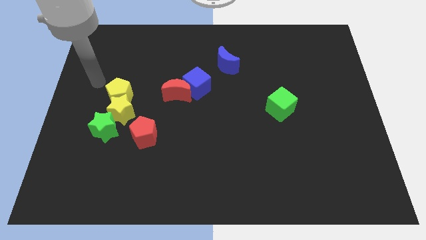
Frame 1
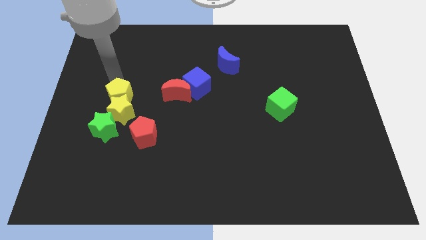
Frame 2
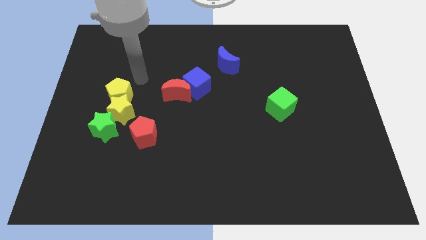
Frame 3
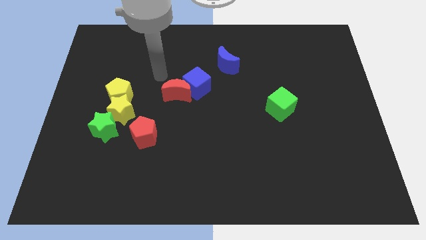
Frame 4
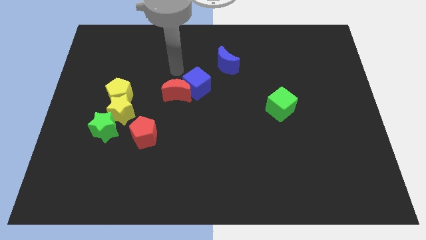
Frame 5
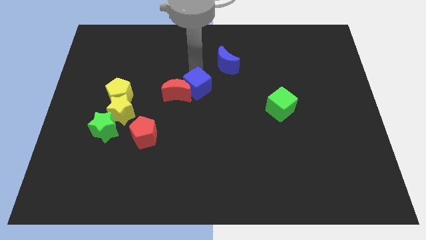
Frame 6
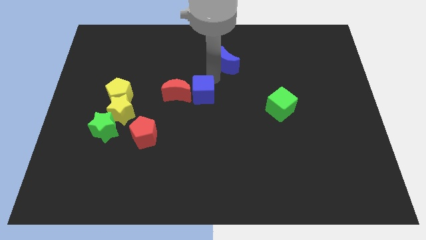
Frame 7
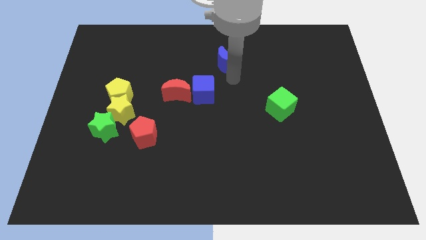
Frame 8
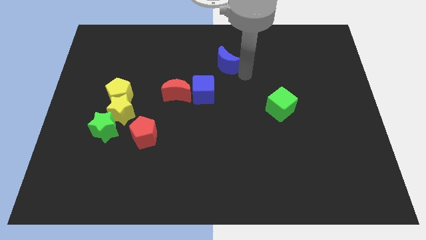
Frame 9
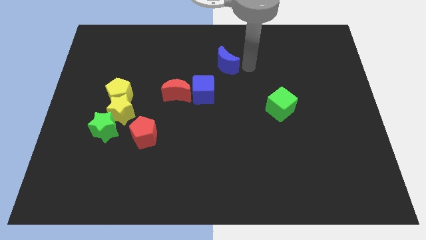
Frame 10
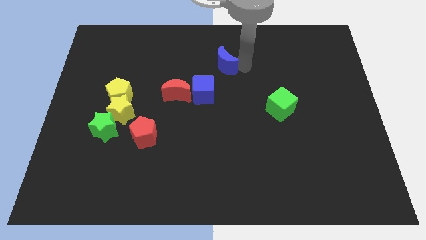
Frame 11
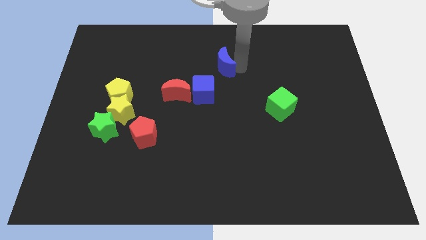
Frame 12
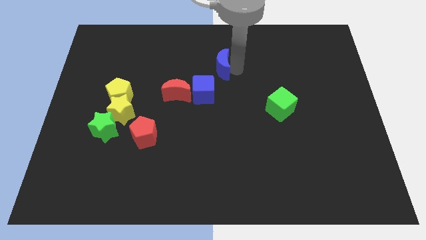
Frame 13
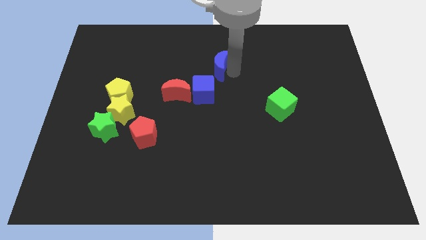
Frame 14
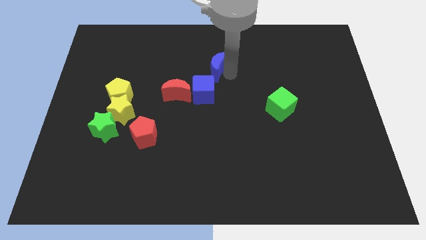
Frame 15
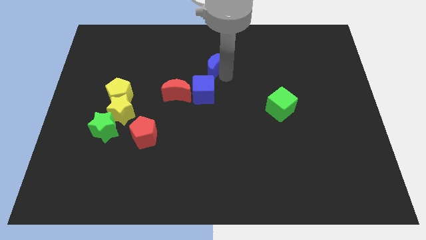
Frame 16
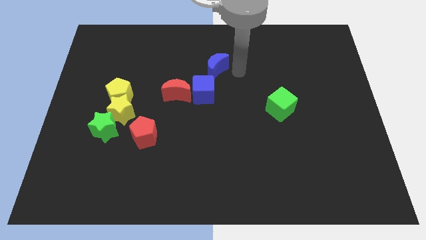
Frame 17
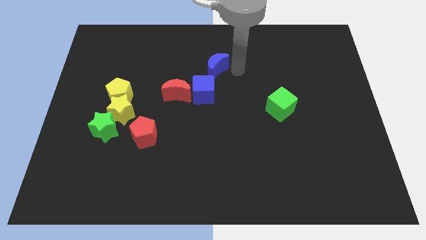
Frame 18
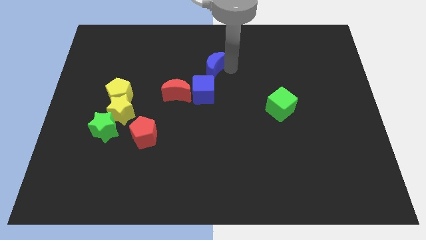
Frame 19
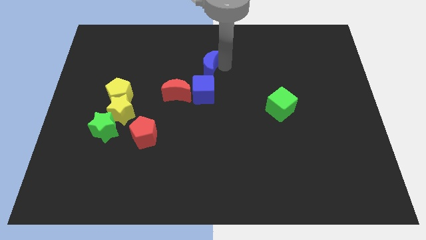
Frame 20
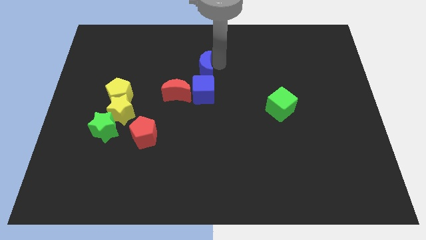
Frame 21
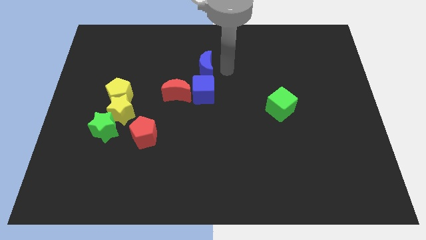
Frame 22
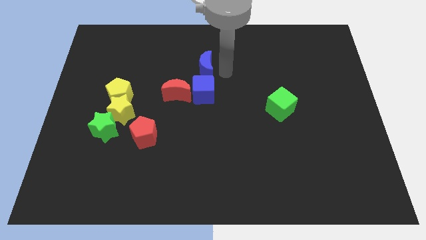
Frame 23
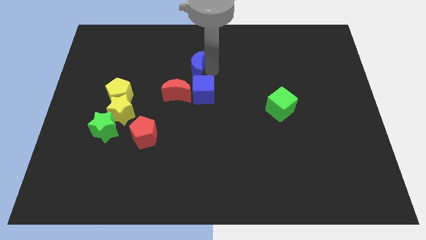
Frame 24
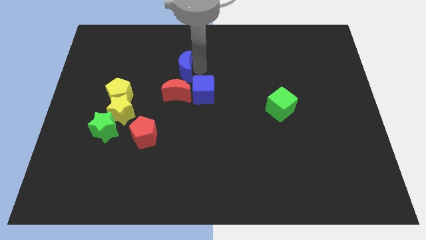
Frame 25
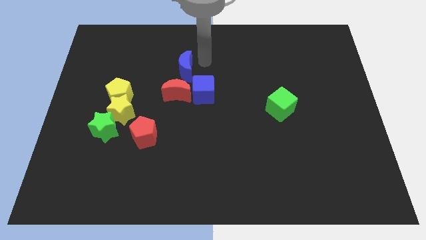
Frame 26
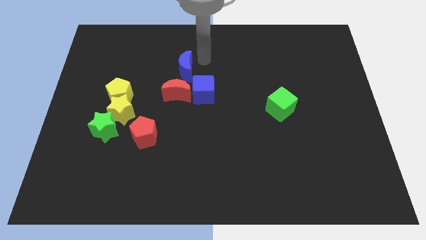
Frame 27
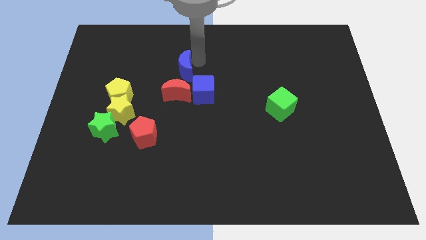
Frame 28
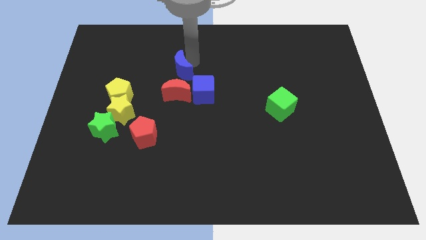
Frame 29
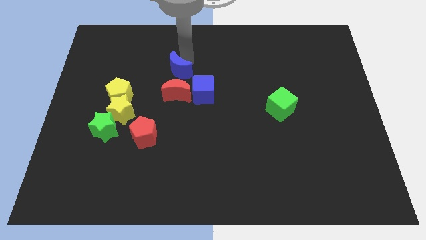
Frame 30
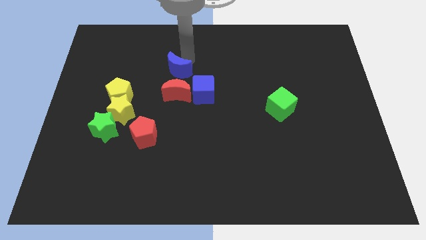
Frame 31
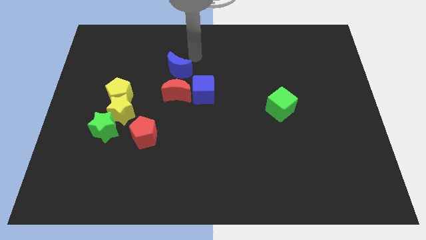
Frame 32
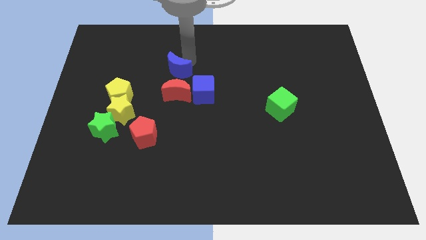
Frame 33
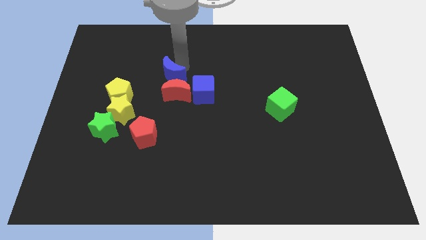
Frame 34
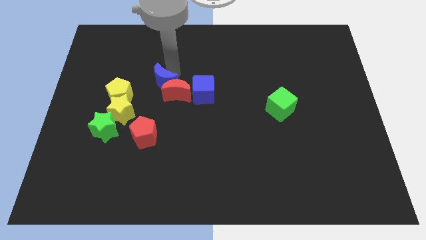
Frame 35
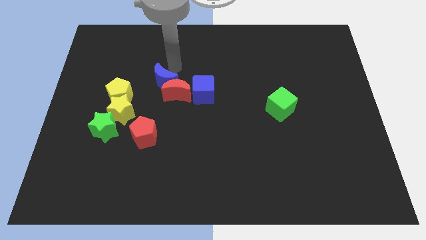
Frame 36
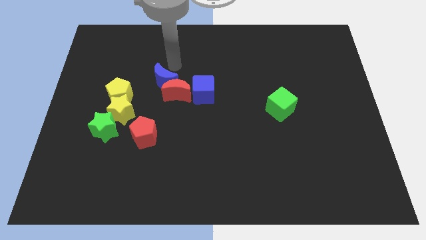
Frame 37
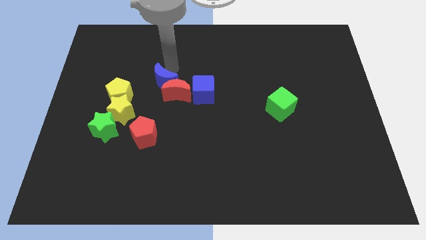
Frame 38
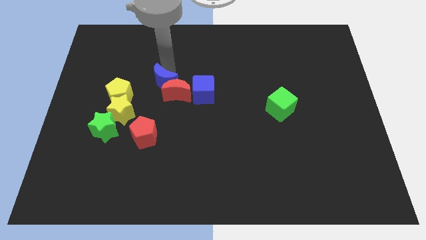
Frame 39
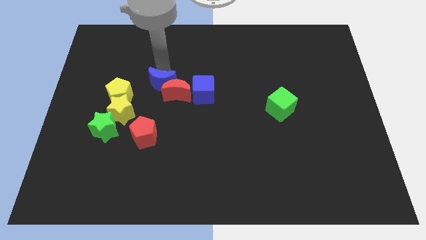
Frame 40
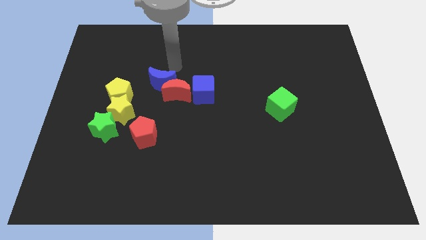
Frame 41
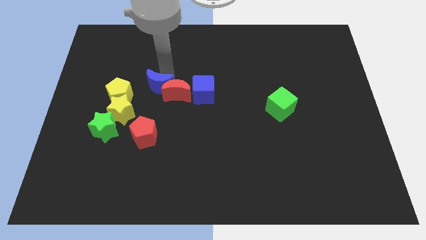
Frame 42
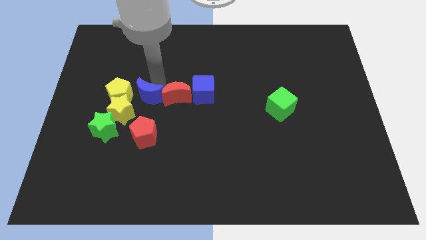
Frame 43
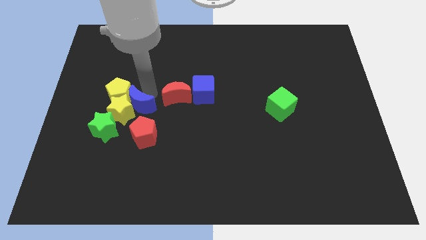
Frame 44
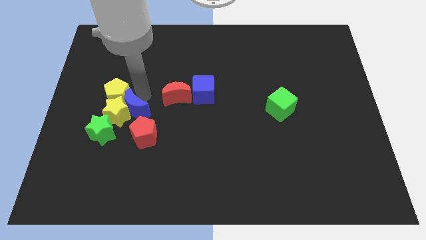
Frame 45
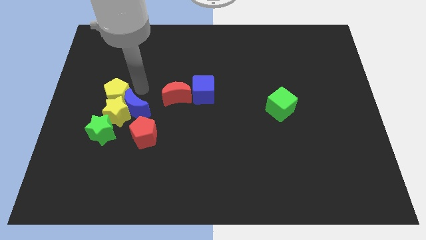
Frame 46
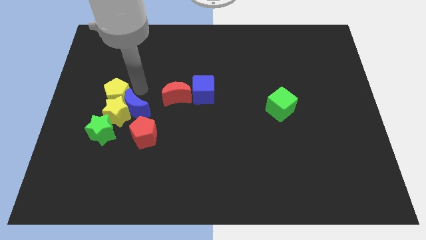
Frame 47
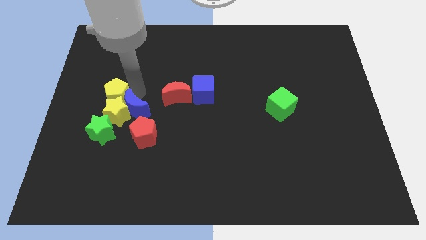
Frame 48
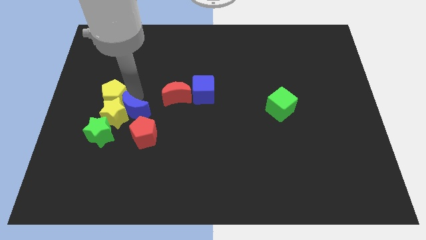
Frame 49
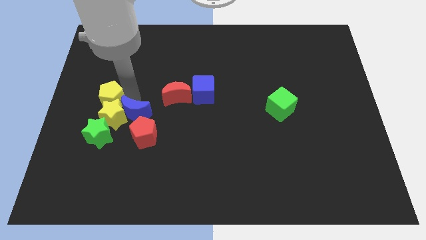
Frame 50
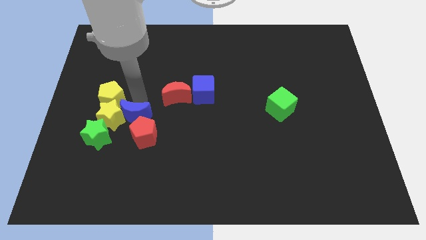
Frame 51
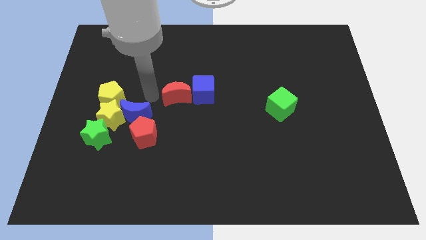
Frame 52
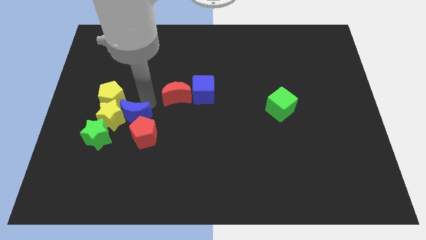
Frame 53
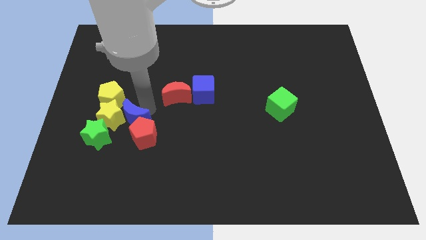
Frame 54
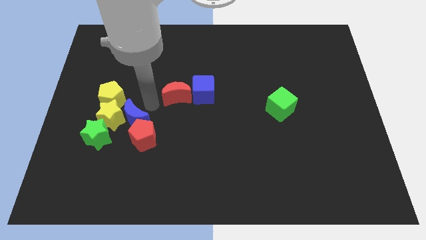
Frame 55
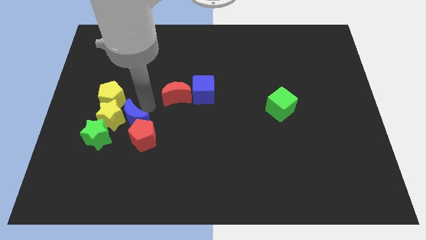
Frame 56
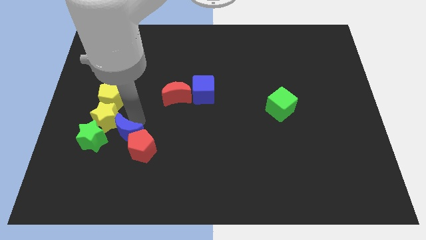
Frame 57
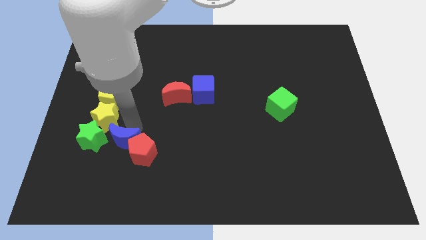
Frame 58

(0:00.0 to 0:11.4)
push the blue moon to the bottom side of the yellow star

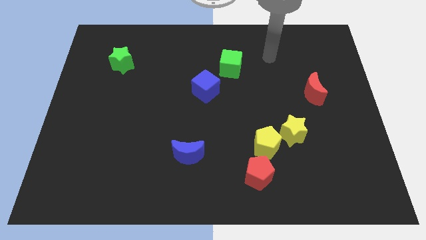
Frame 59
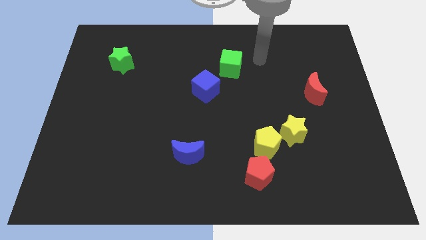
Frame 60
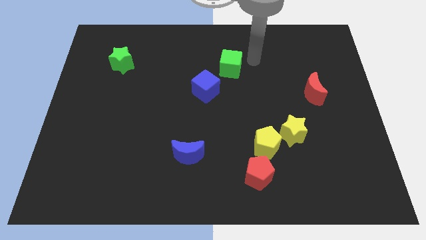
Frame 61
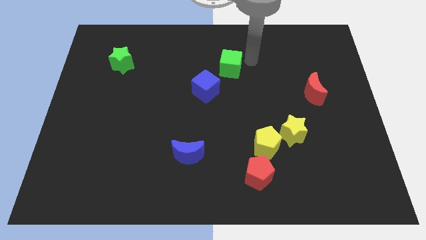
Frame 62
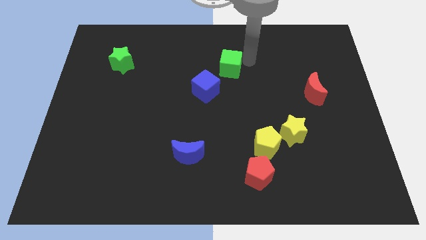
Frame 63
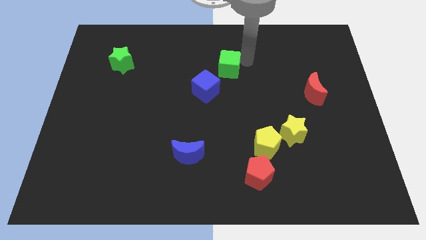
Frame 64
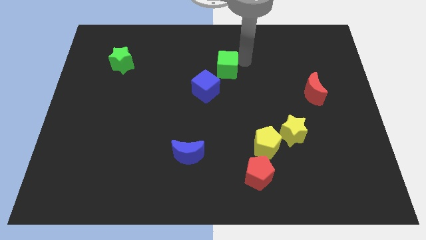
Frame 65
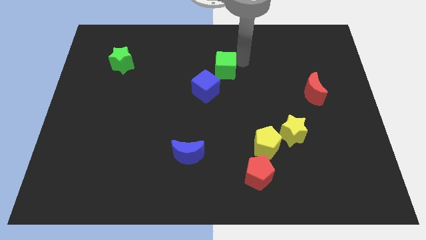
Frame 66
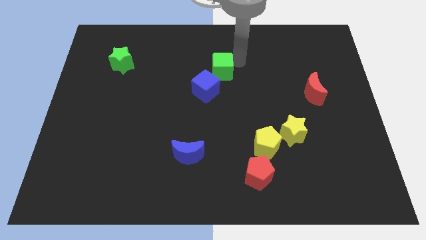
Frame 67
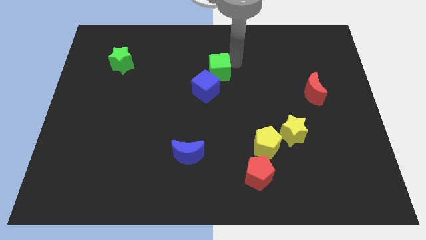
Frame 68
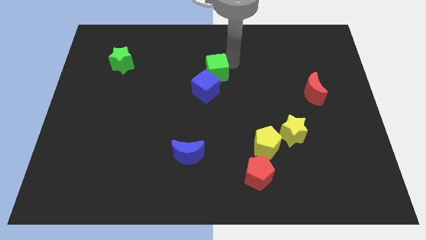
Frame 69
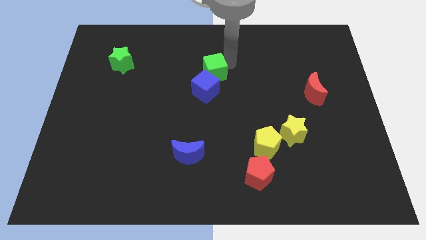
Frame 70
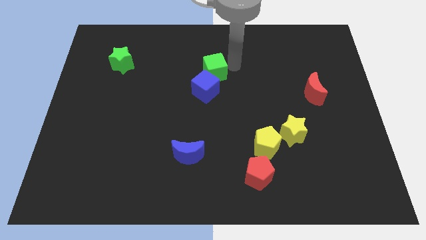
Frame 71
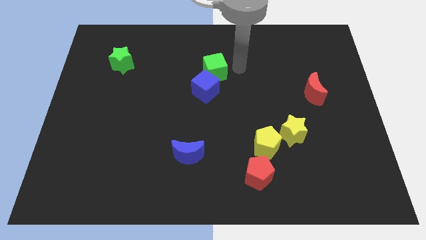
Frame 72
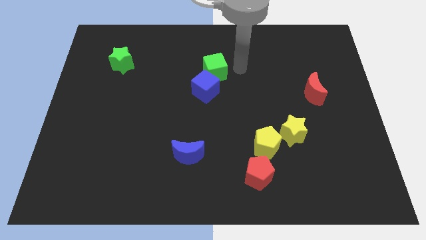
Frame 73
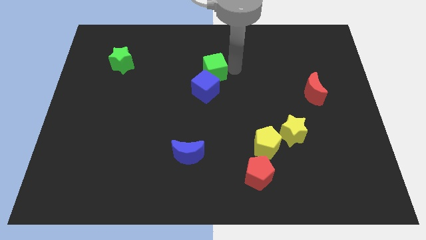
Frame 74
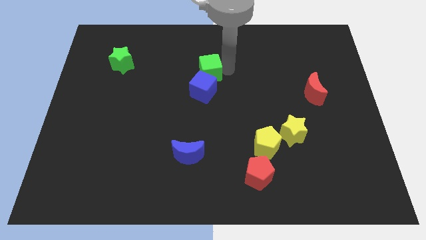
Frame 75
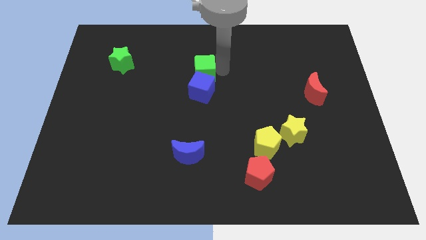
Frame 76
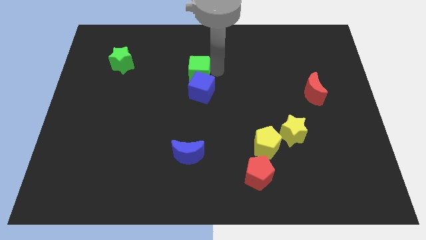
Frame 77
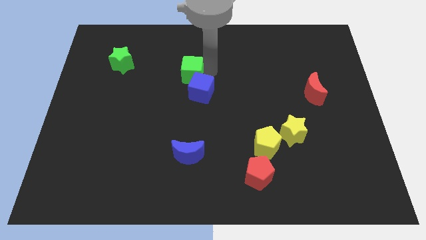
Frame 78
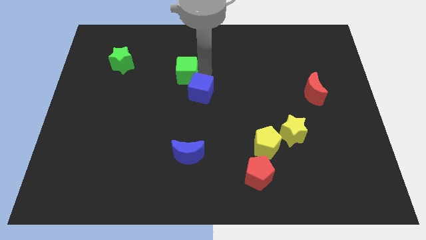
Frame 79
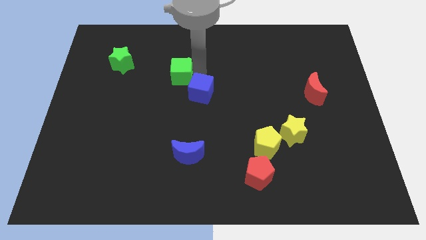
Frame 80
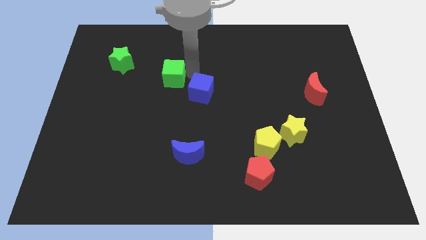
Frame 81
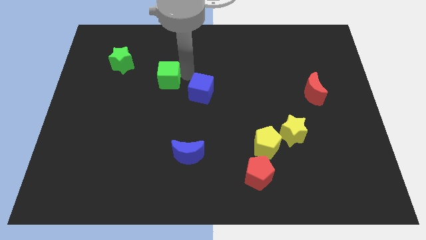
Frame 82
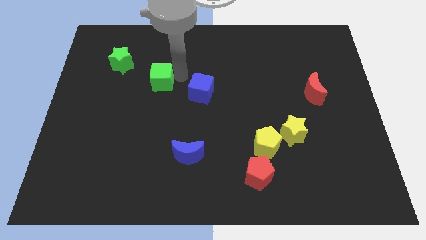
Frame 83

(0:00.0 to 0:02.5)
push the green cube to the bottom right of the green star
